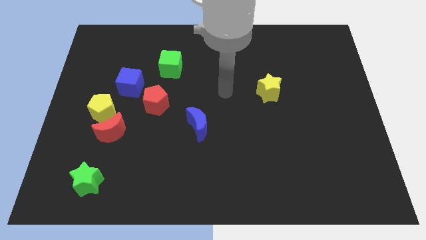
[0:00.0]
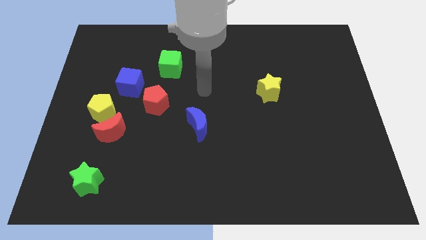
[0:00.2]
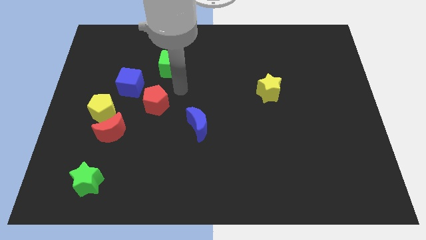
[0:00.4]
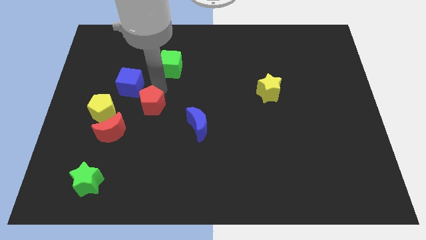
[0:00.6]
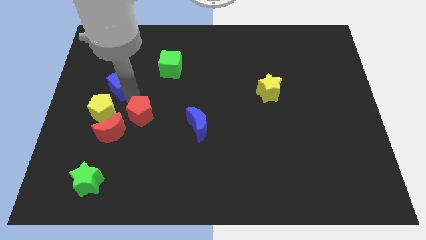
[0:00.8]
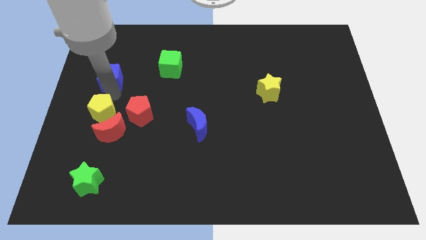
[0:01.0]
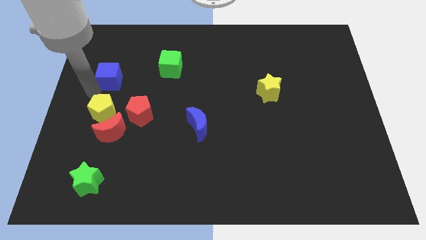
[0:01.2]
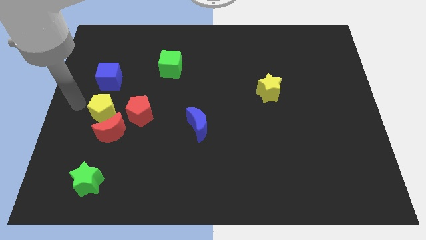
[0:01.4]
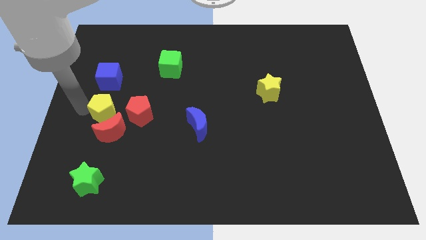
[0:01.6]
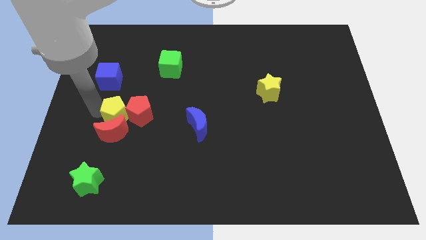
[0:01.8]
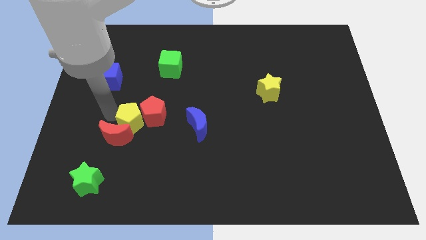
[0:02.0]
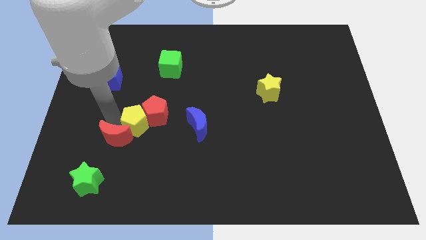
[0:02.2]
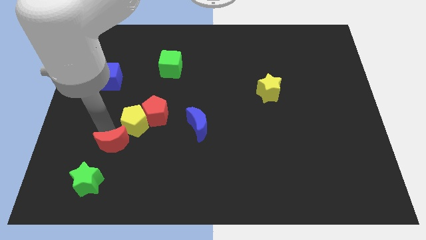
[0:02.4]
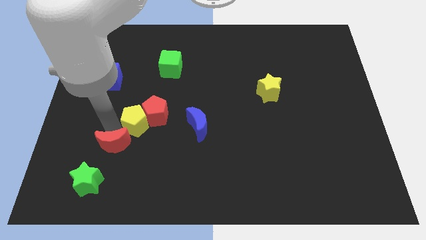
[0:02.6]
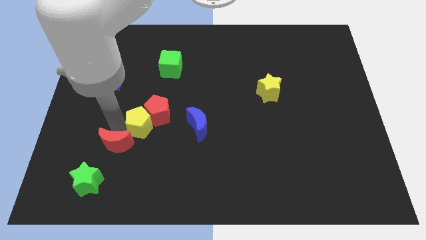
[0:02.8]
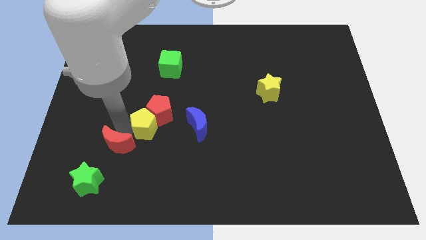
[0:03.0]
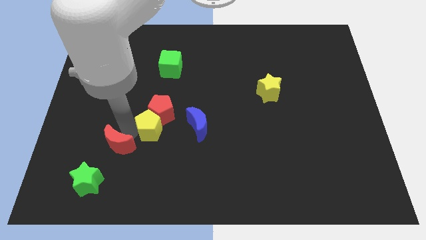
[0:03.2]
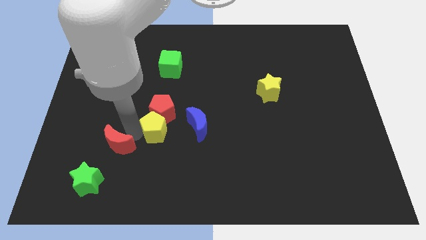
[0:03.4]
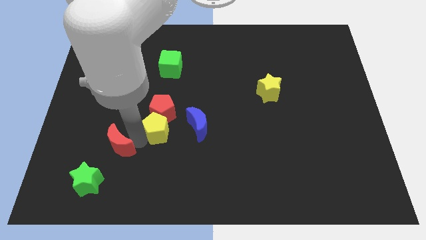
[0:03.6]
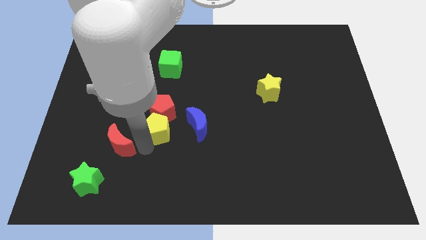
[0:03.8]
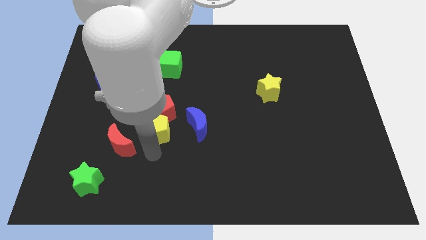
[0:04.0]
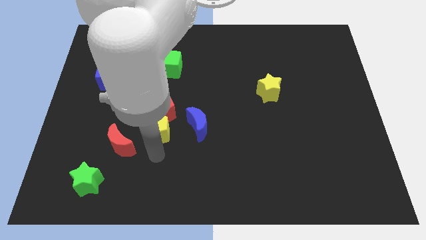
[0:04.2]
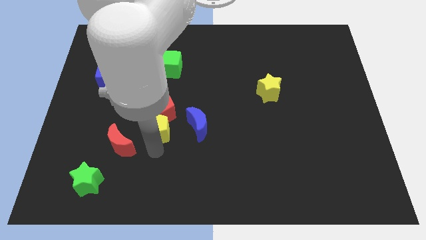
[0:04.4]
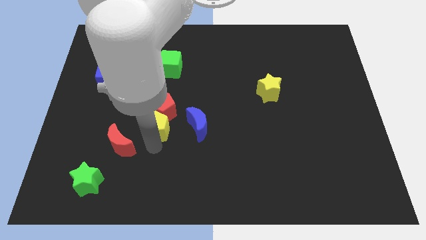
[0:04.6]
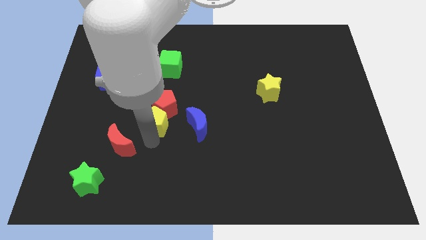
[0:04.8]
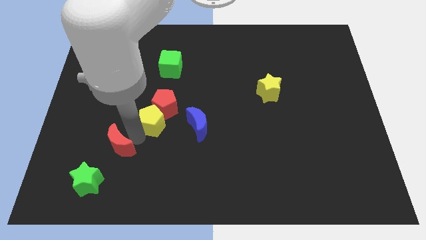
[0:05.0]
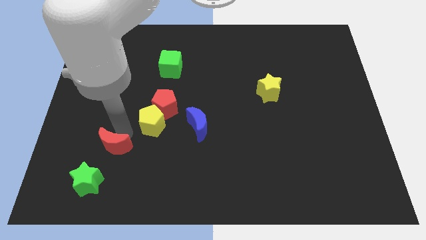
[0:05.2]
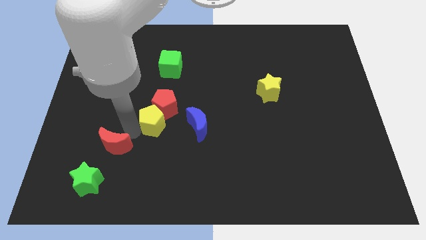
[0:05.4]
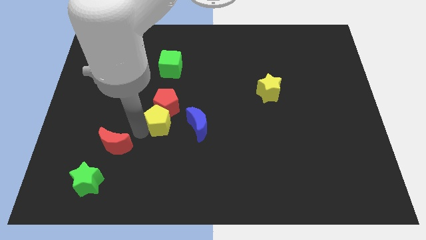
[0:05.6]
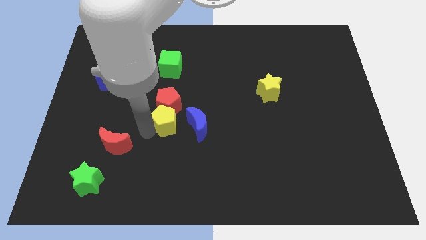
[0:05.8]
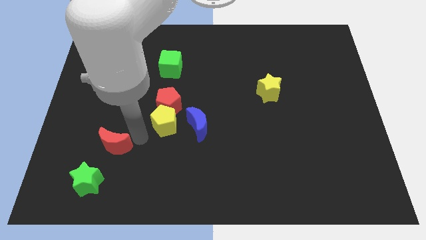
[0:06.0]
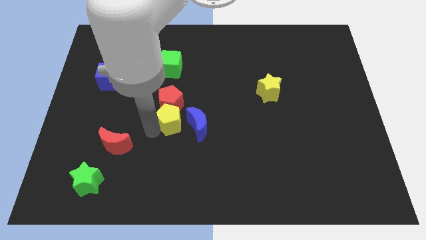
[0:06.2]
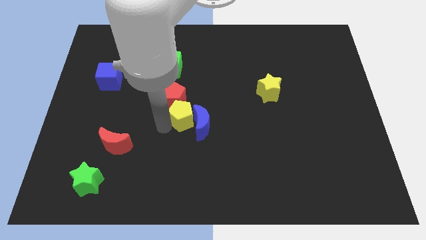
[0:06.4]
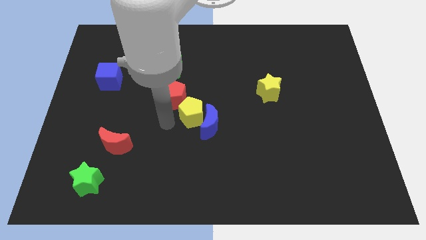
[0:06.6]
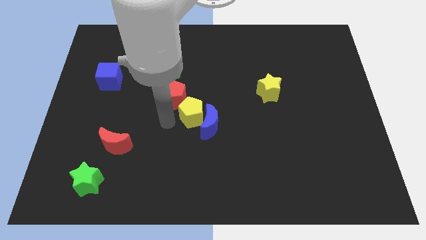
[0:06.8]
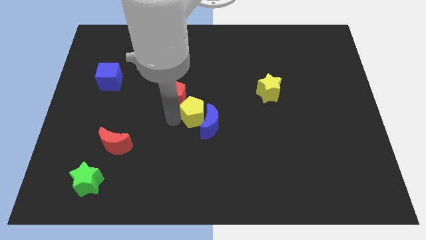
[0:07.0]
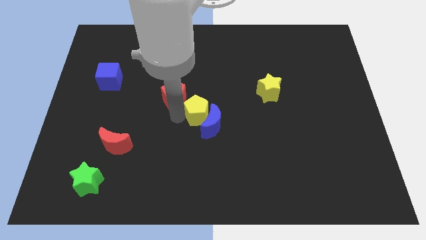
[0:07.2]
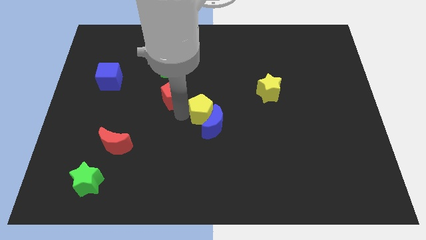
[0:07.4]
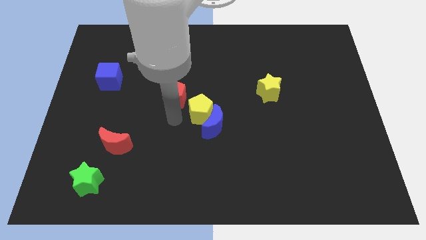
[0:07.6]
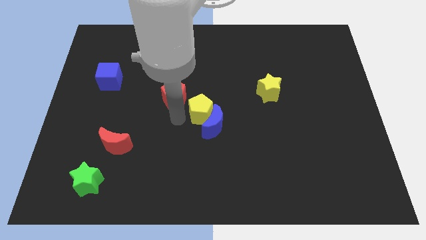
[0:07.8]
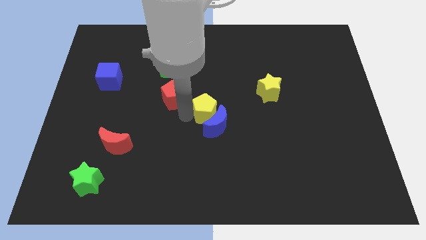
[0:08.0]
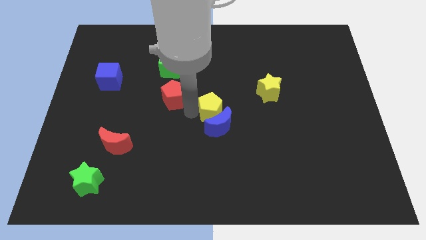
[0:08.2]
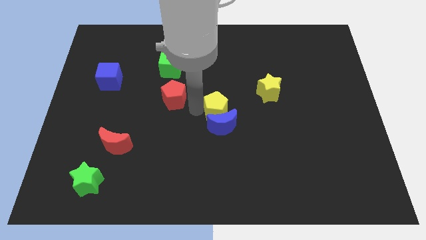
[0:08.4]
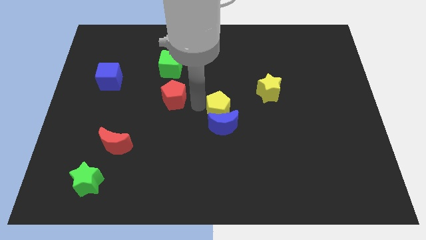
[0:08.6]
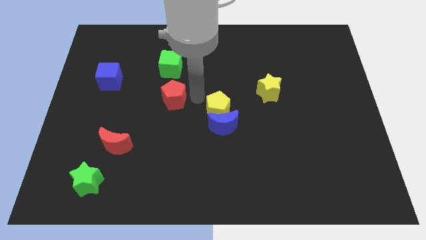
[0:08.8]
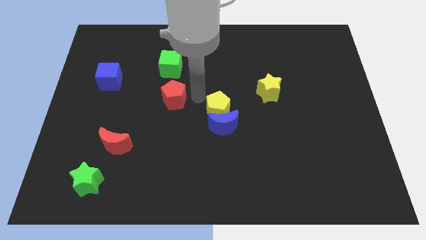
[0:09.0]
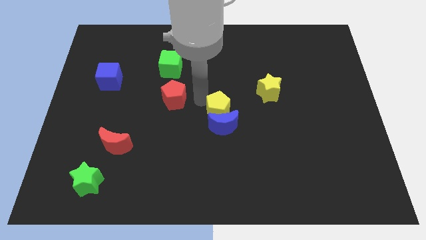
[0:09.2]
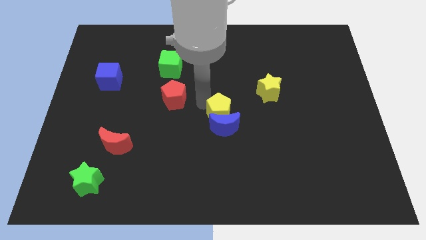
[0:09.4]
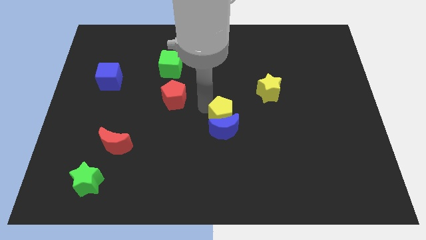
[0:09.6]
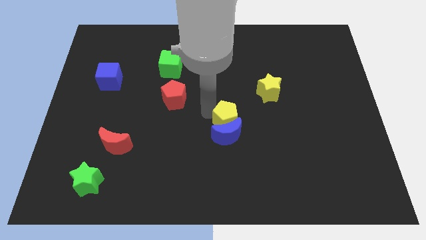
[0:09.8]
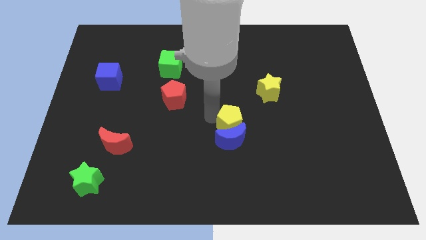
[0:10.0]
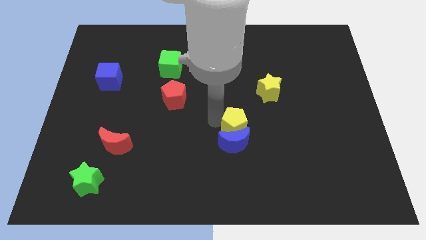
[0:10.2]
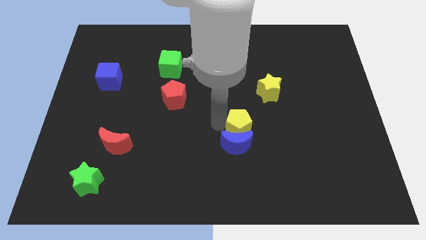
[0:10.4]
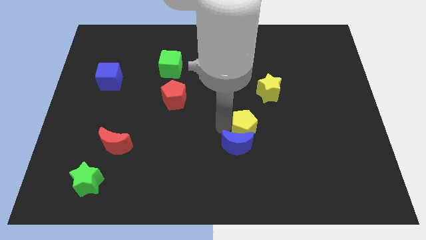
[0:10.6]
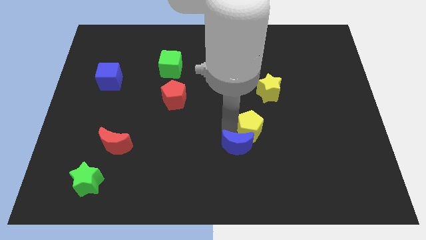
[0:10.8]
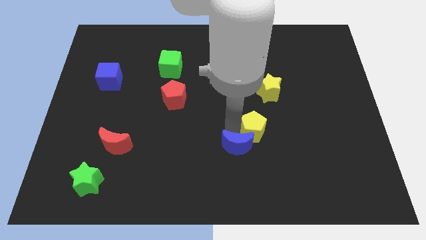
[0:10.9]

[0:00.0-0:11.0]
slide the yellow pentagon to the bottom of the yellow star

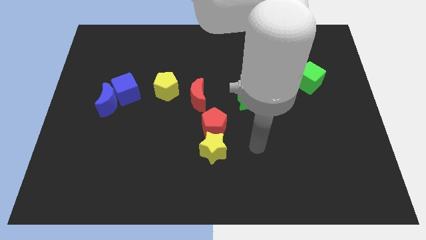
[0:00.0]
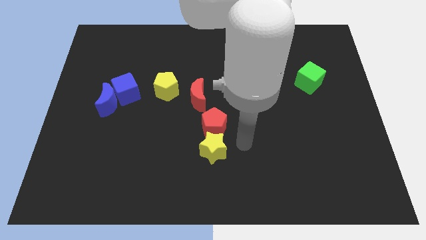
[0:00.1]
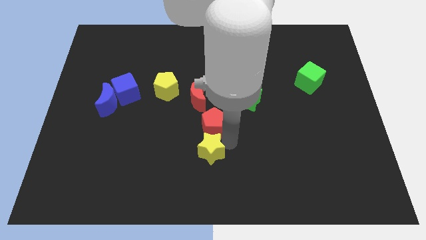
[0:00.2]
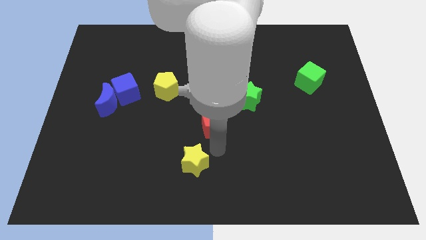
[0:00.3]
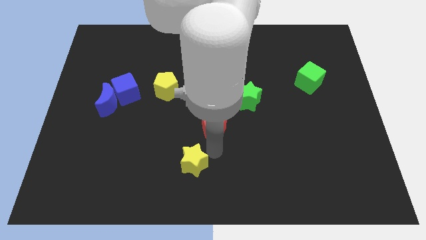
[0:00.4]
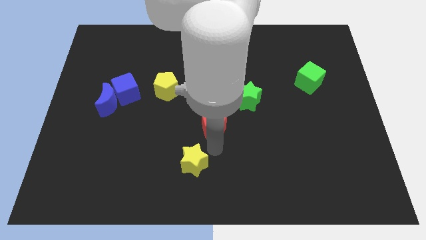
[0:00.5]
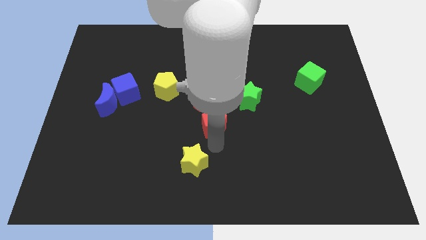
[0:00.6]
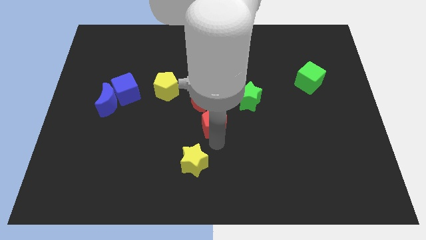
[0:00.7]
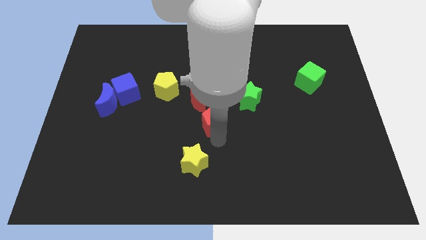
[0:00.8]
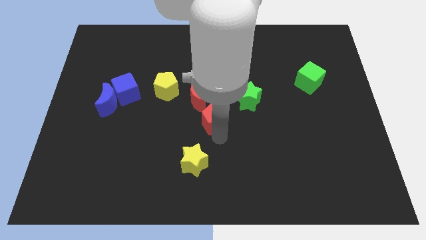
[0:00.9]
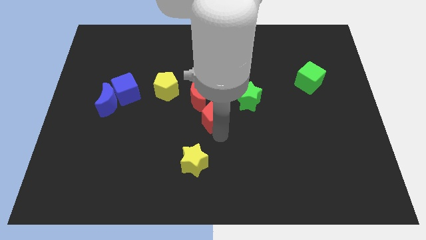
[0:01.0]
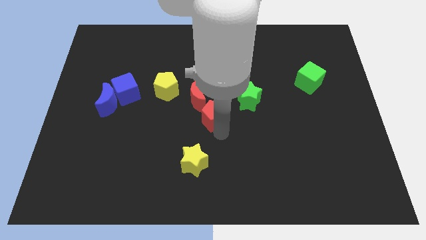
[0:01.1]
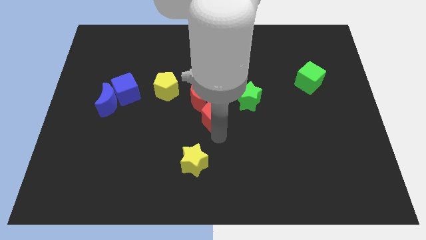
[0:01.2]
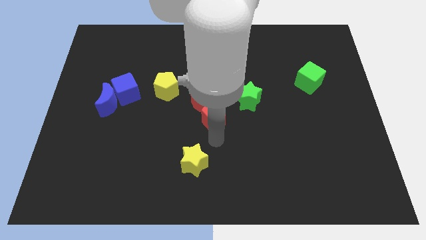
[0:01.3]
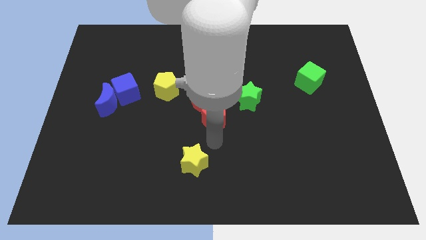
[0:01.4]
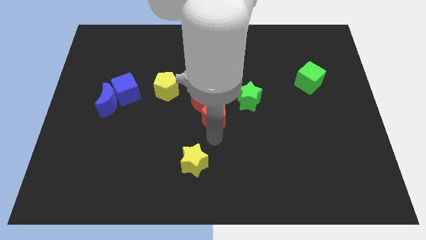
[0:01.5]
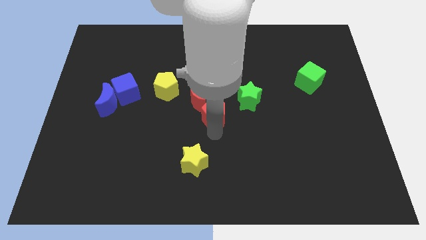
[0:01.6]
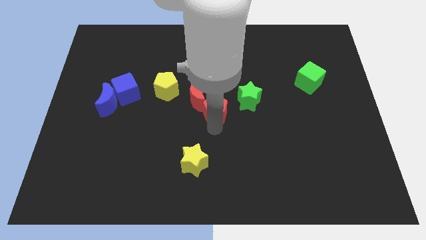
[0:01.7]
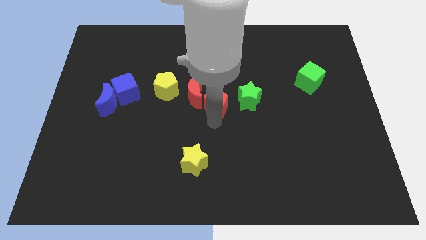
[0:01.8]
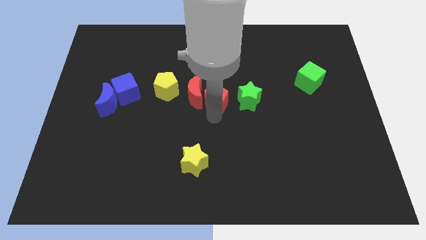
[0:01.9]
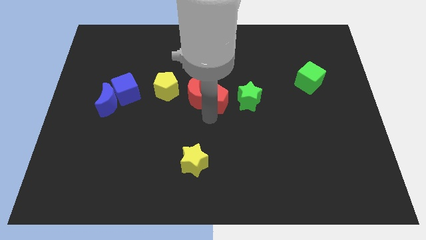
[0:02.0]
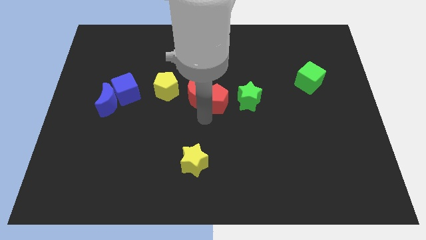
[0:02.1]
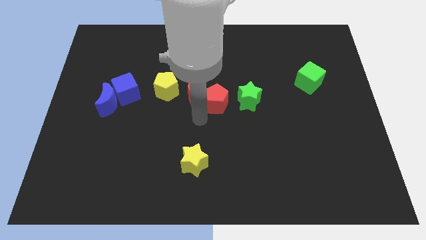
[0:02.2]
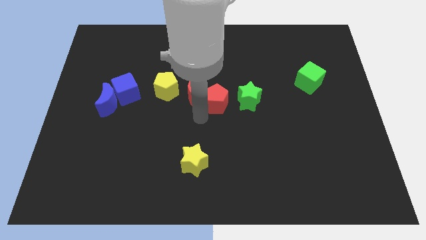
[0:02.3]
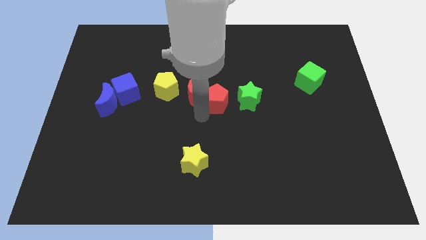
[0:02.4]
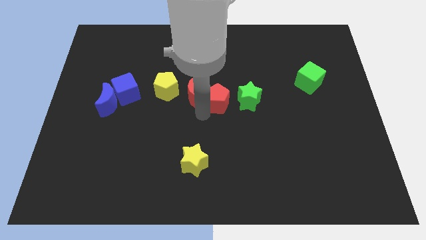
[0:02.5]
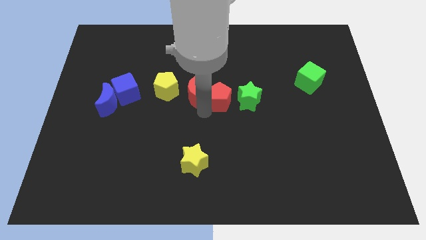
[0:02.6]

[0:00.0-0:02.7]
move the red pentagon diagonally up and to the left of the green star
